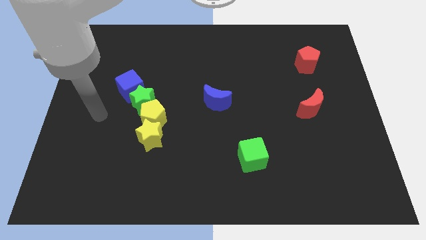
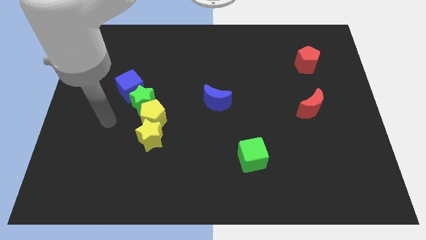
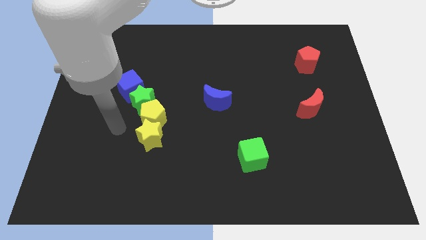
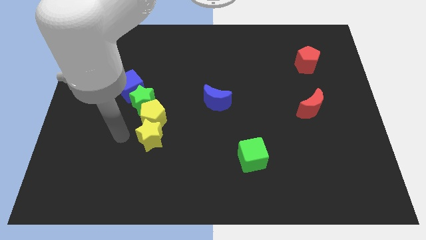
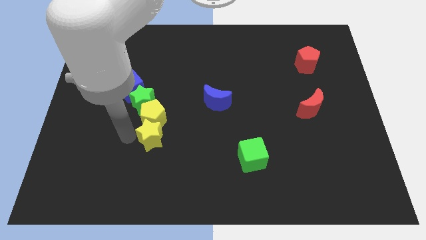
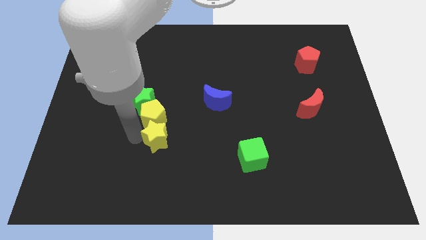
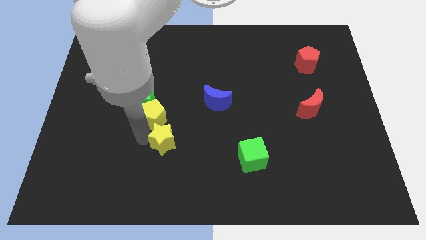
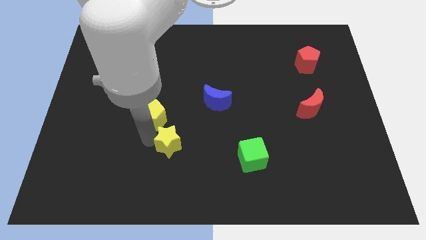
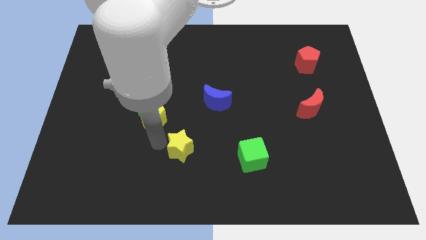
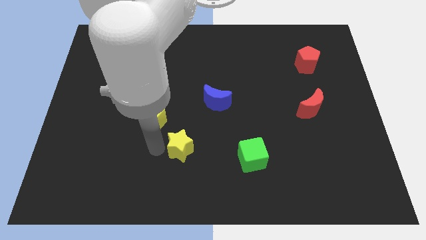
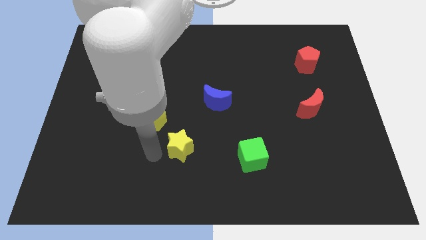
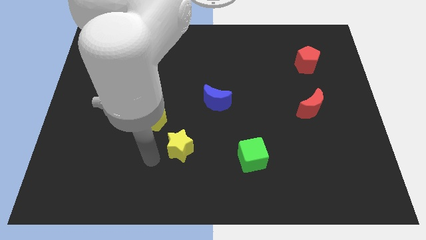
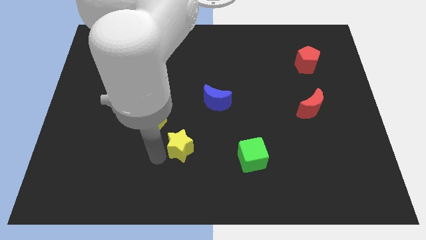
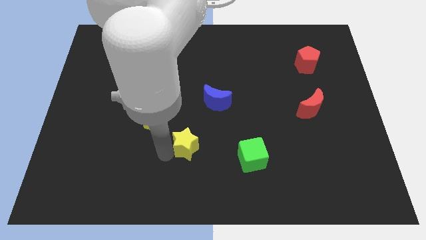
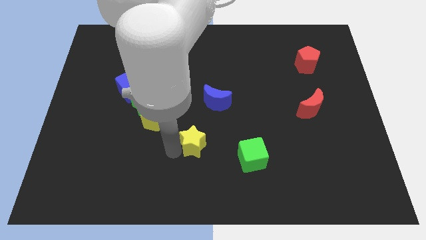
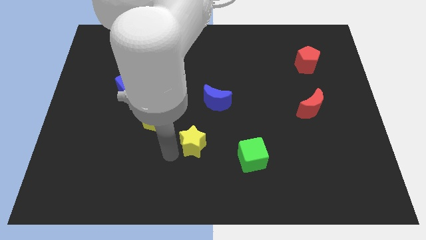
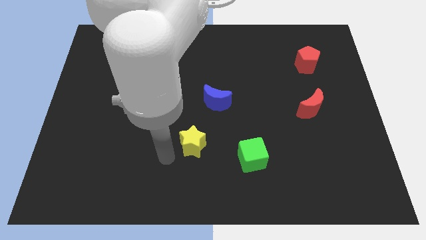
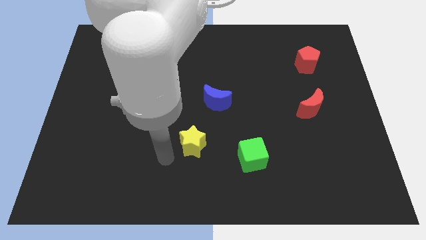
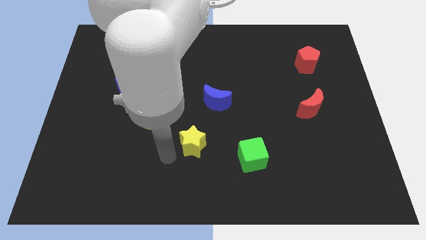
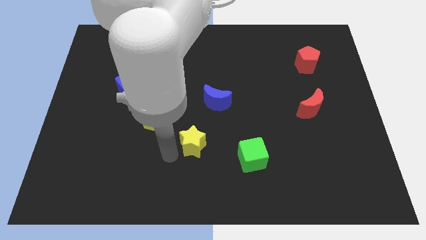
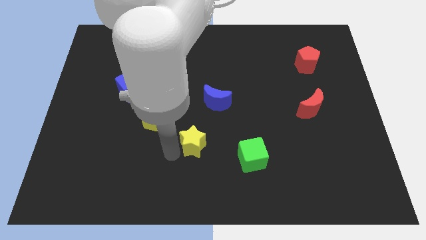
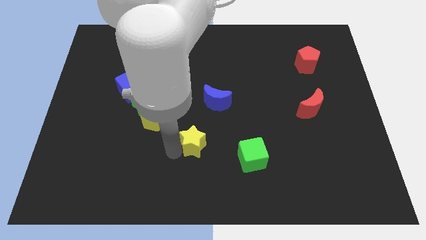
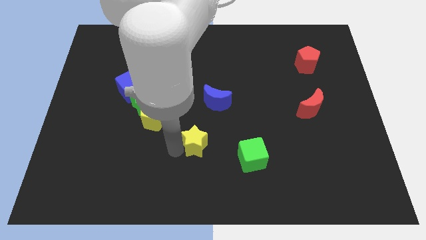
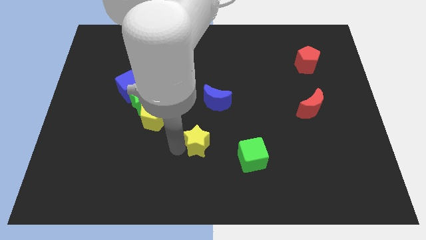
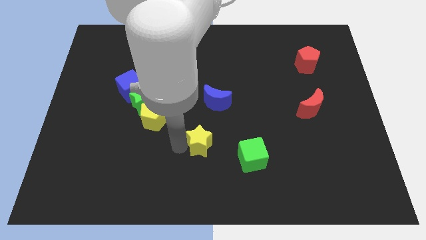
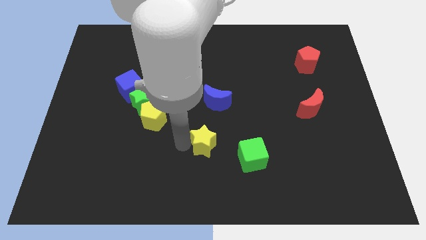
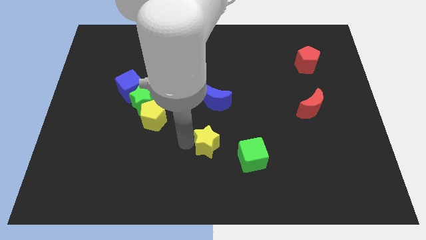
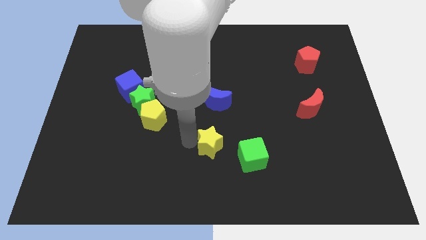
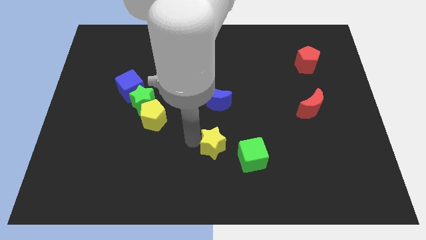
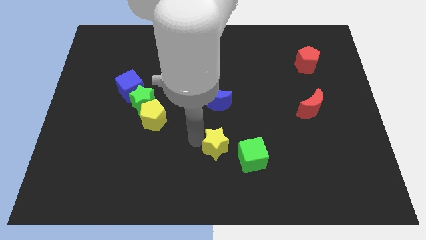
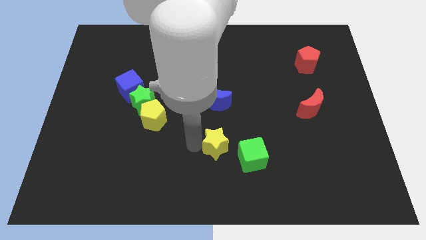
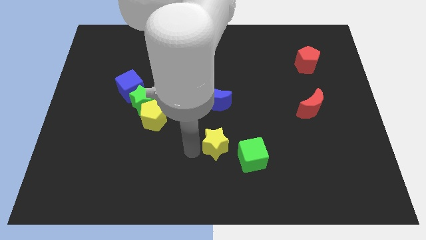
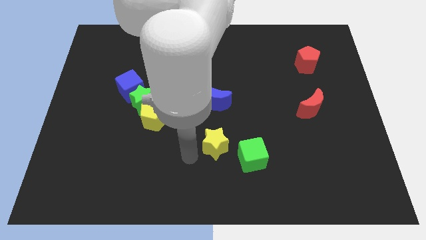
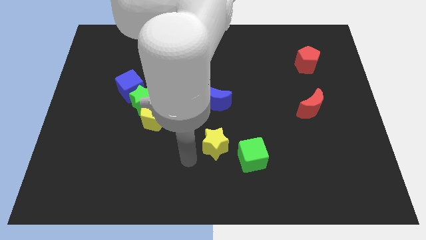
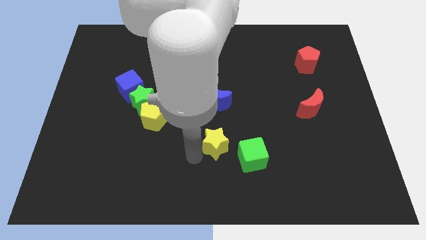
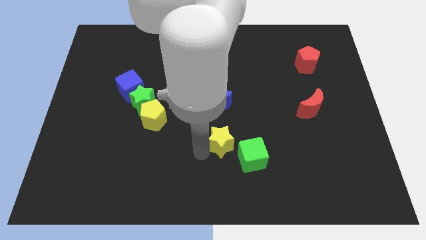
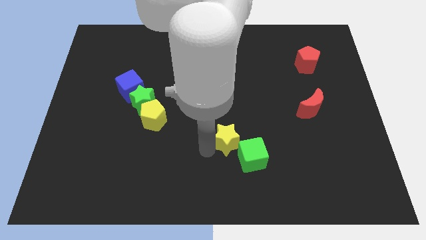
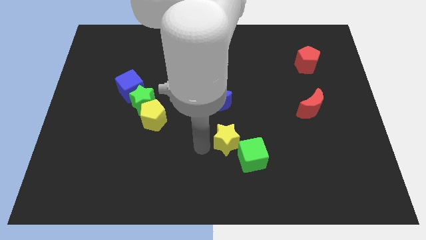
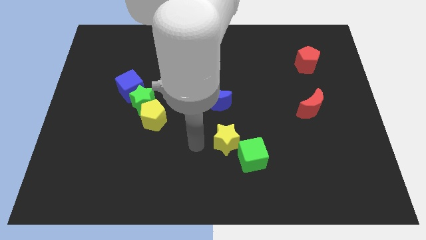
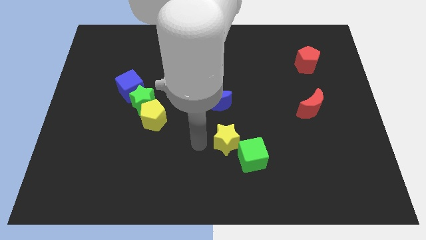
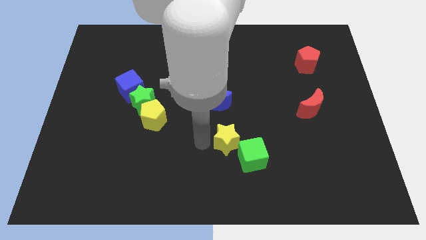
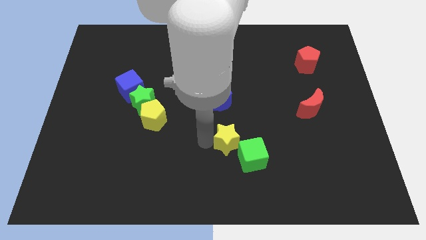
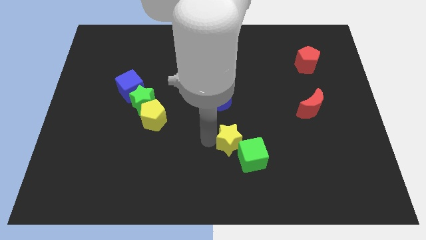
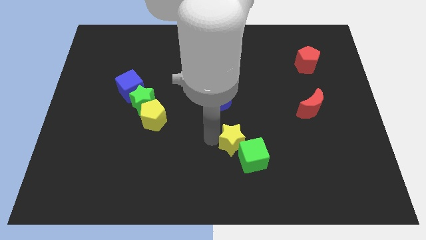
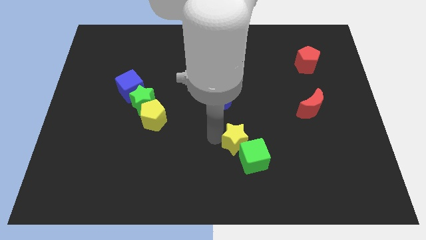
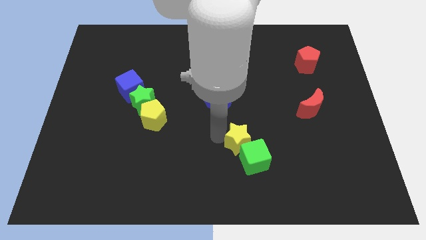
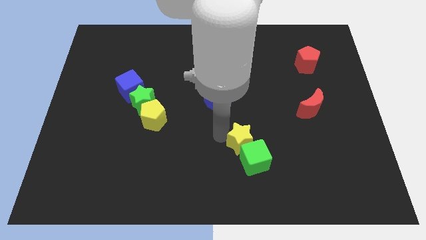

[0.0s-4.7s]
slide the yellow star right

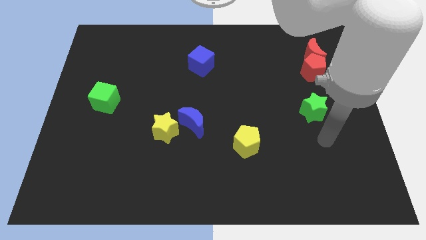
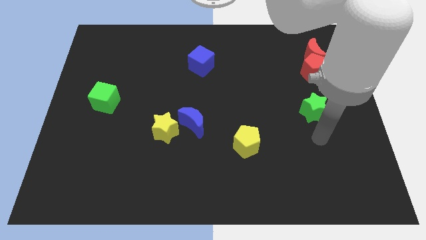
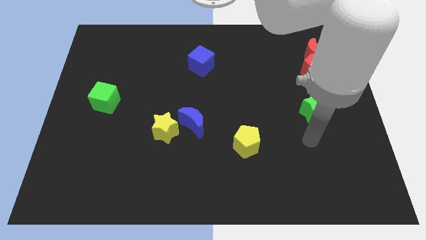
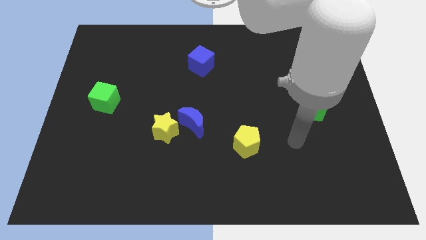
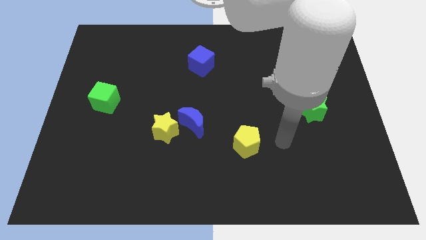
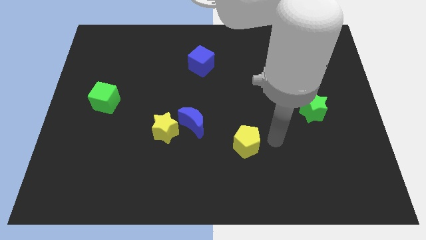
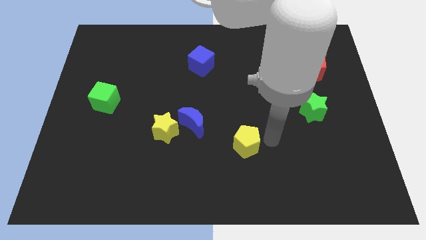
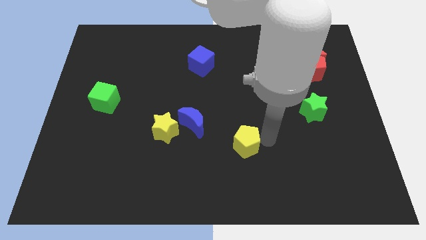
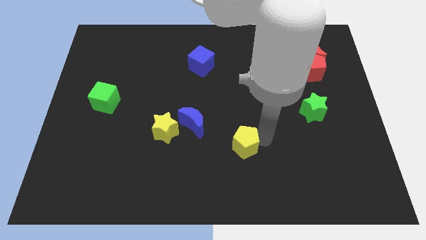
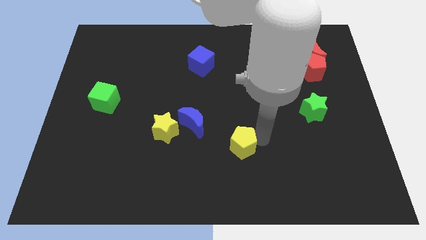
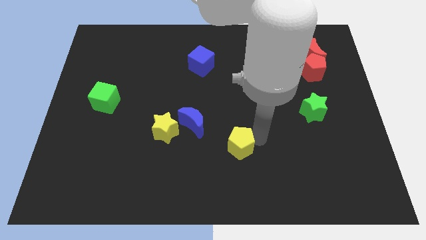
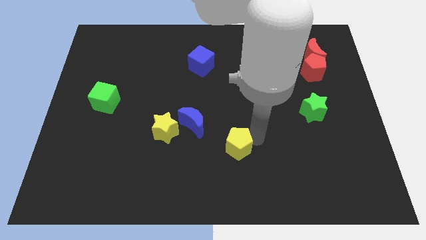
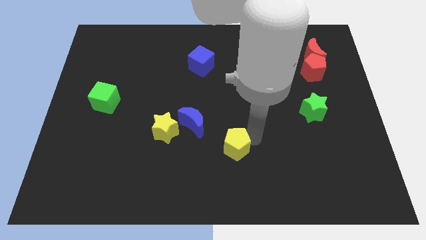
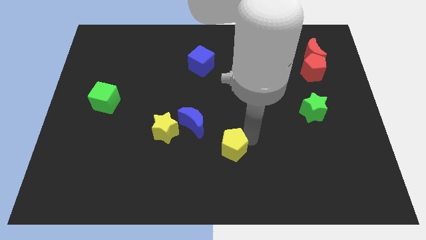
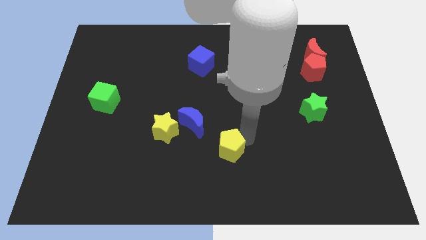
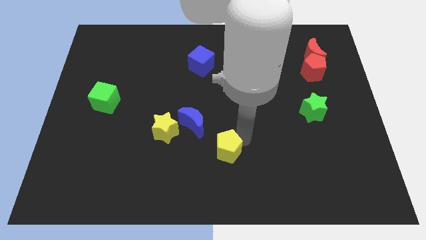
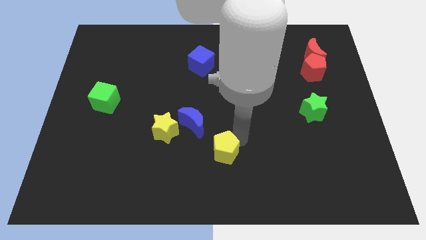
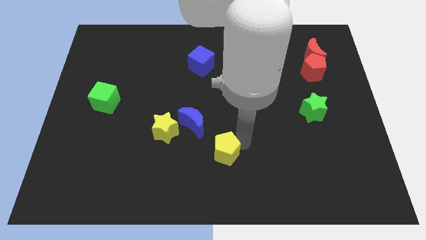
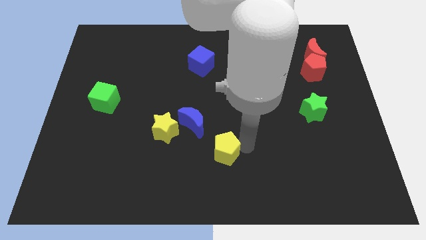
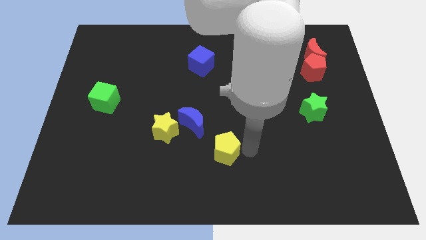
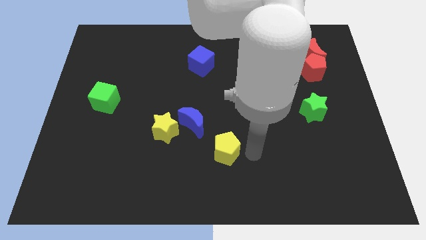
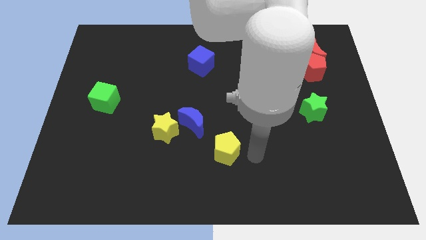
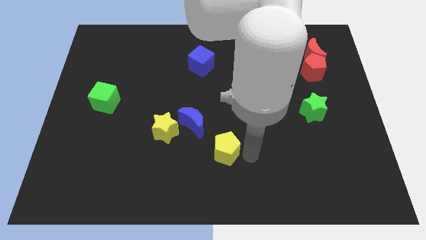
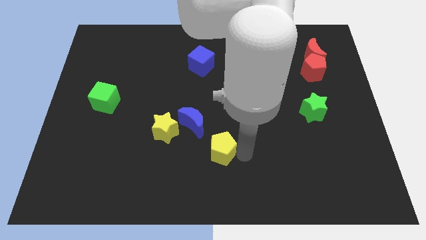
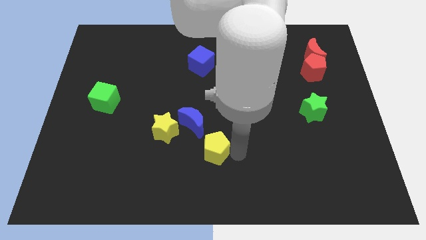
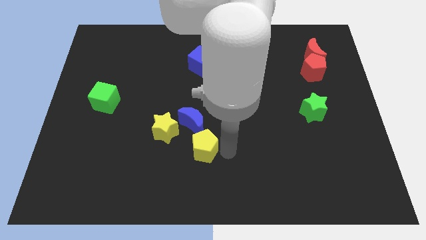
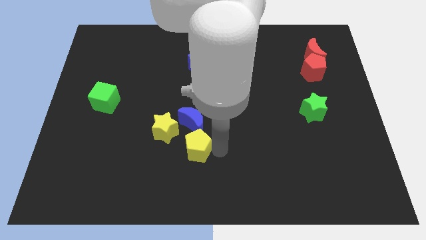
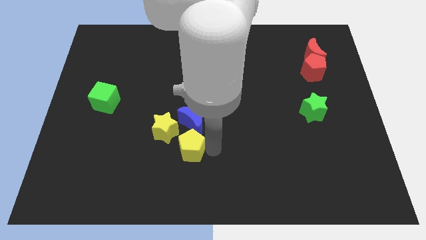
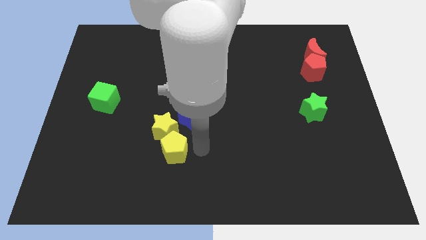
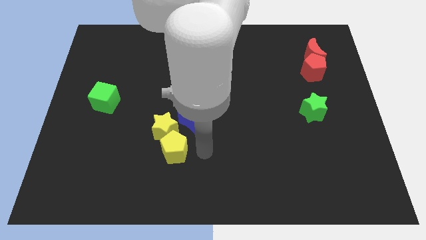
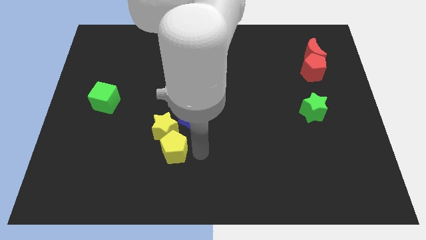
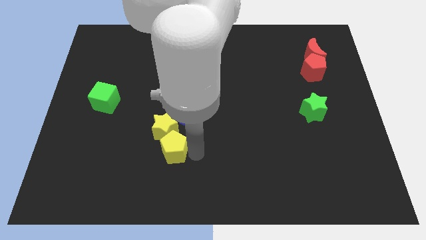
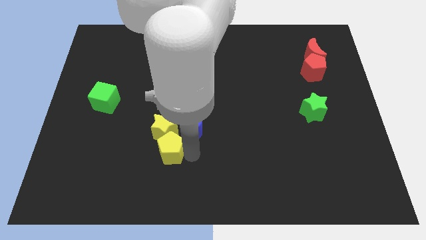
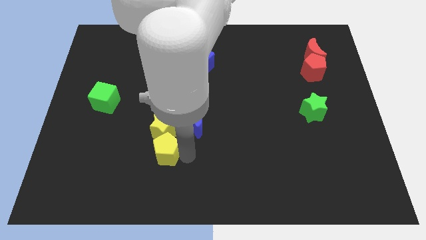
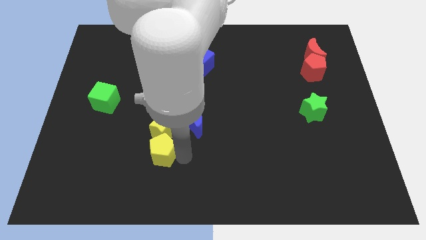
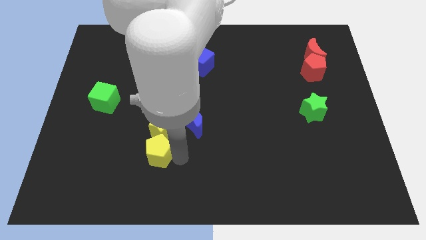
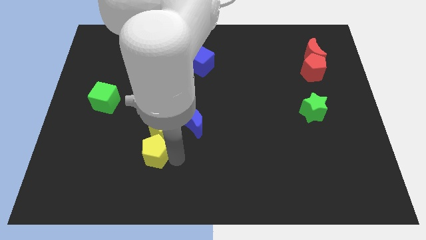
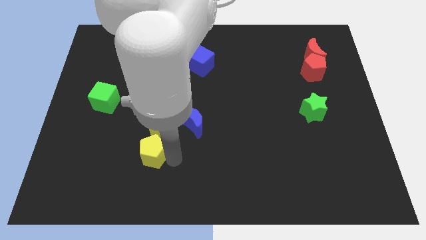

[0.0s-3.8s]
push the yellow pentagon left
